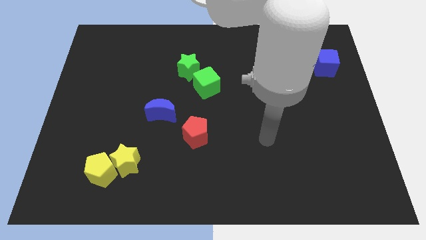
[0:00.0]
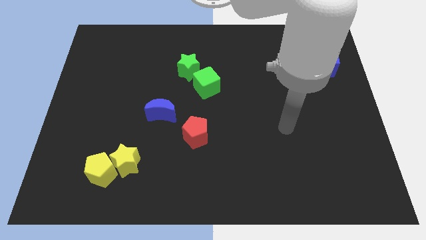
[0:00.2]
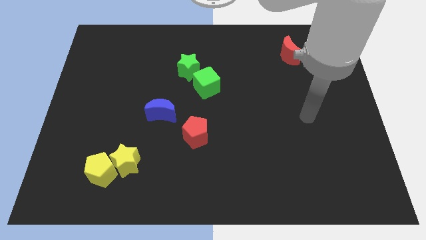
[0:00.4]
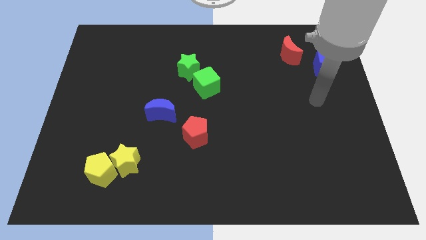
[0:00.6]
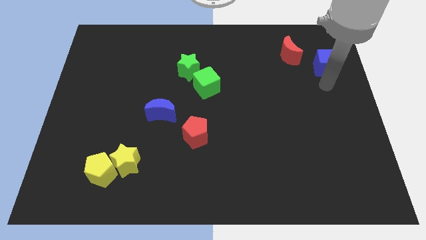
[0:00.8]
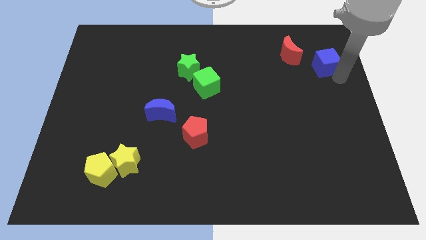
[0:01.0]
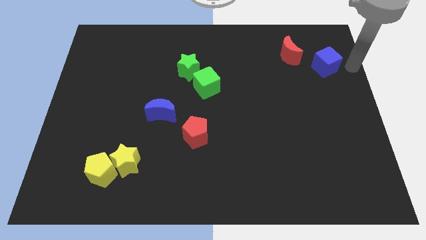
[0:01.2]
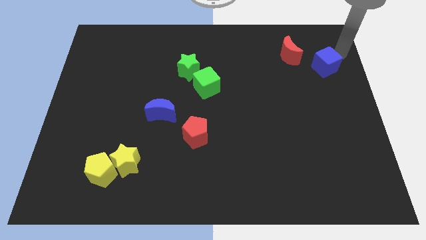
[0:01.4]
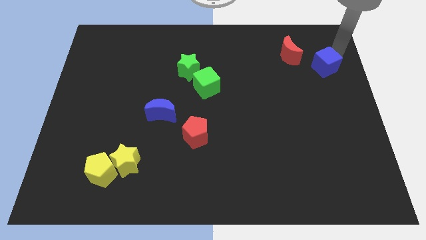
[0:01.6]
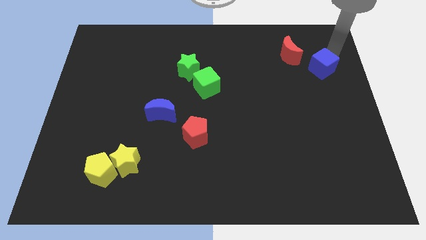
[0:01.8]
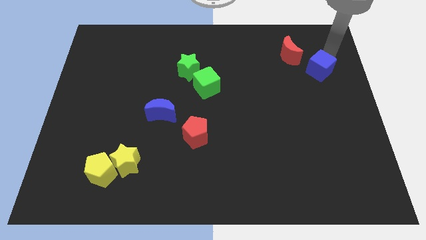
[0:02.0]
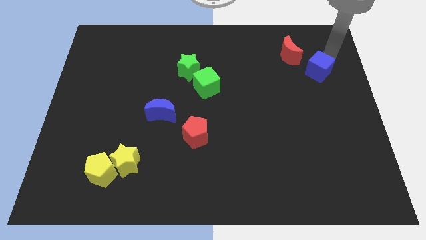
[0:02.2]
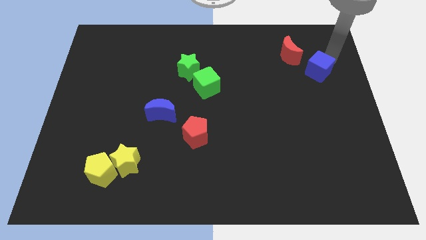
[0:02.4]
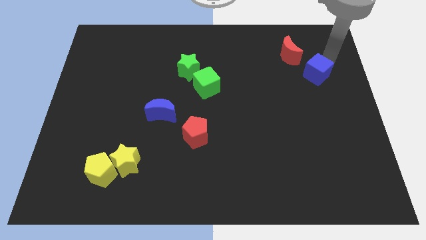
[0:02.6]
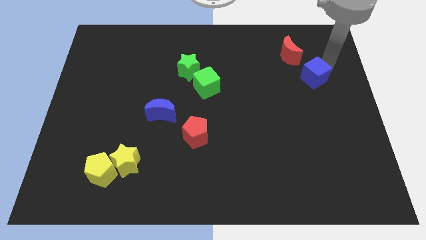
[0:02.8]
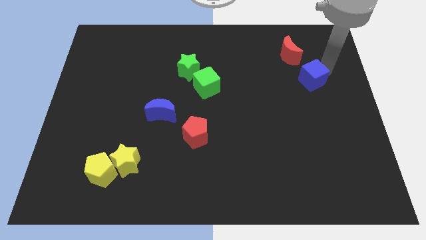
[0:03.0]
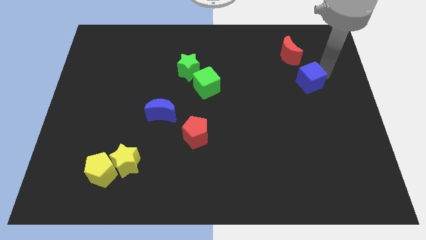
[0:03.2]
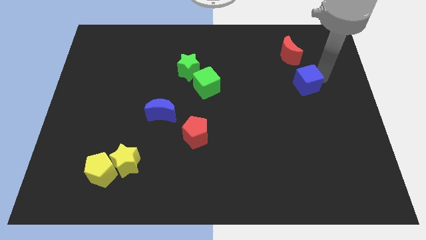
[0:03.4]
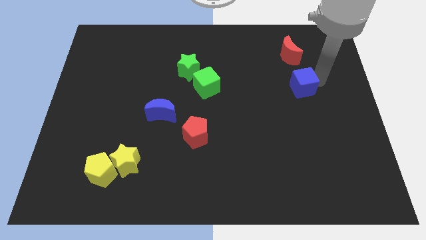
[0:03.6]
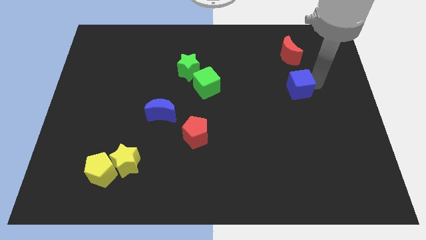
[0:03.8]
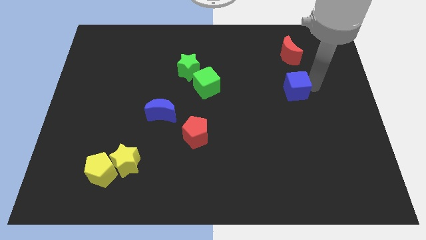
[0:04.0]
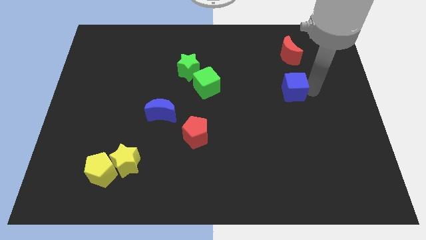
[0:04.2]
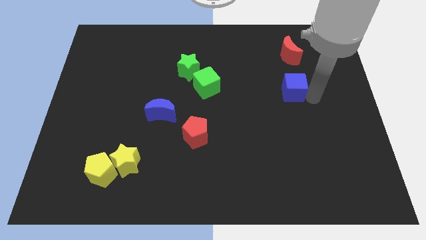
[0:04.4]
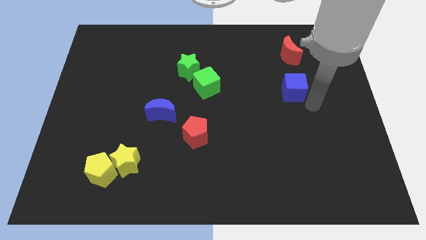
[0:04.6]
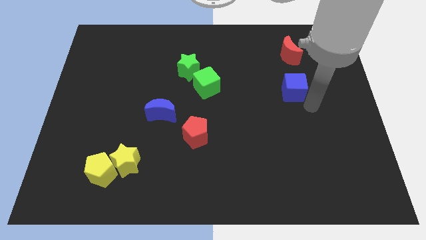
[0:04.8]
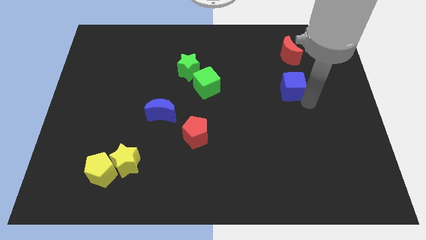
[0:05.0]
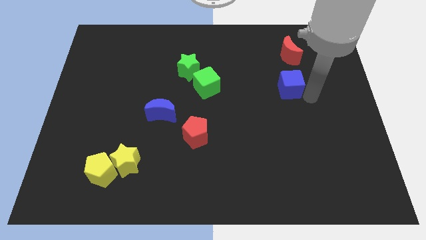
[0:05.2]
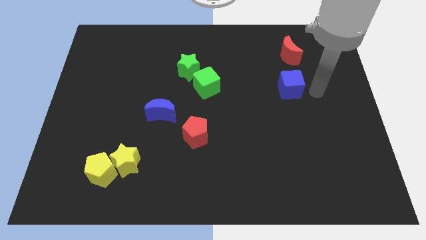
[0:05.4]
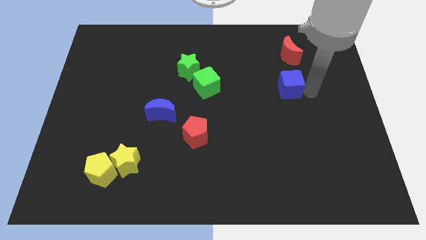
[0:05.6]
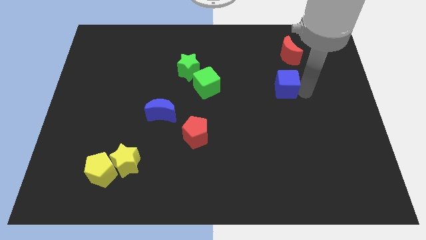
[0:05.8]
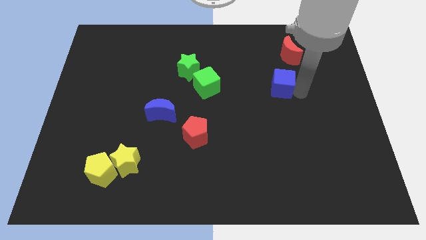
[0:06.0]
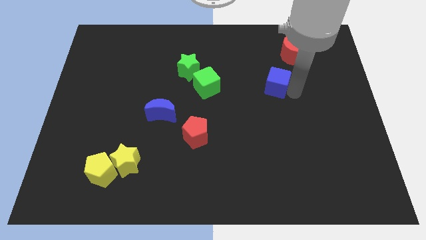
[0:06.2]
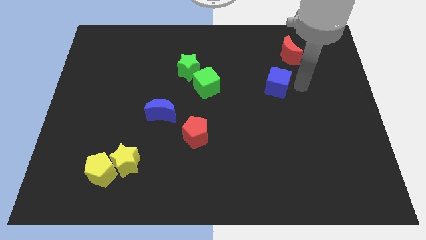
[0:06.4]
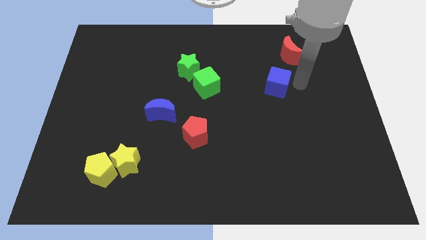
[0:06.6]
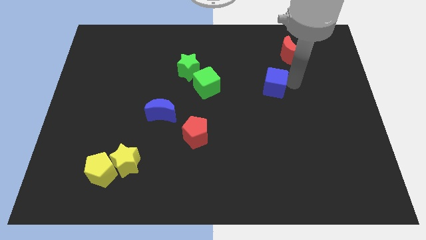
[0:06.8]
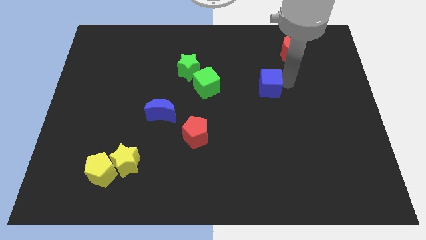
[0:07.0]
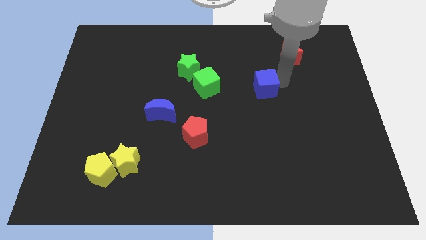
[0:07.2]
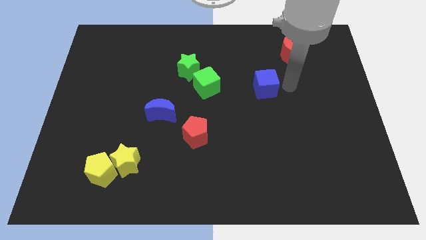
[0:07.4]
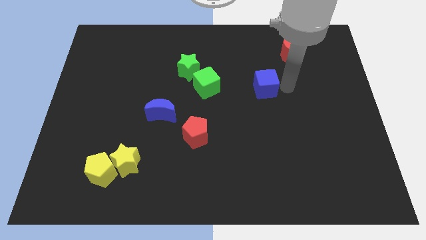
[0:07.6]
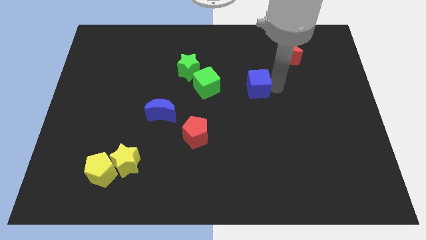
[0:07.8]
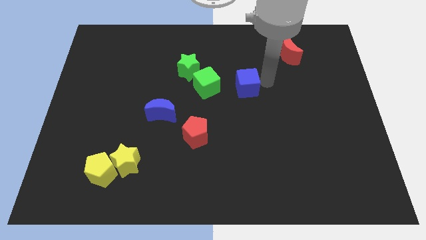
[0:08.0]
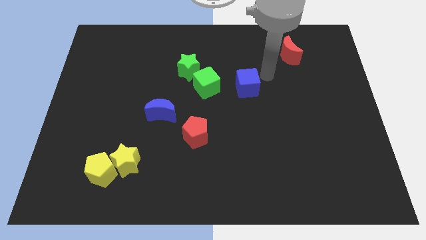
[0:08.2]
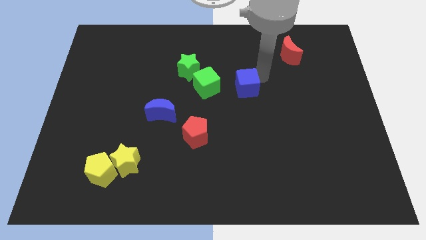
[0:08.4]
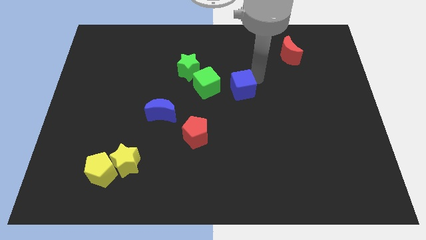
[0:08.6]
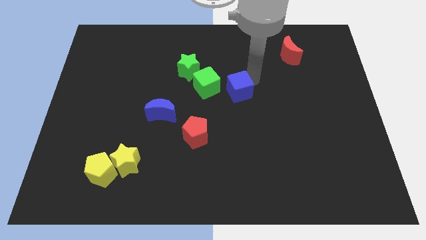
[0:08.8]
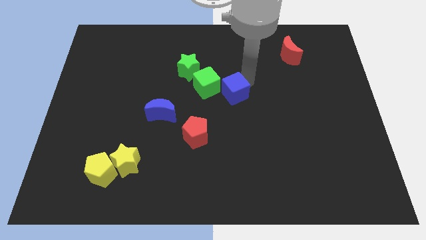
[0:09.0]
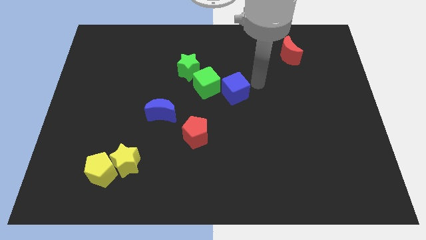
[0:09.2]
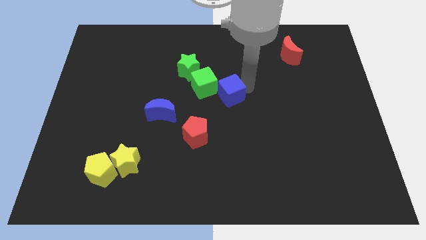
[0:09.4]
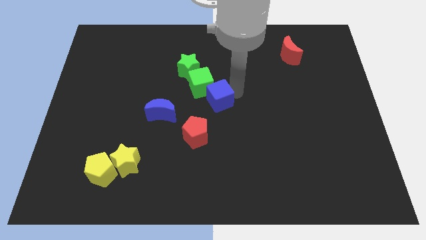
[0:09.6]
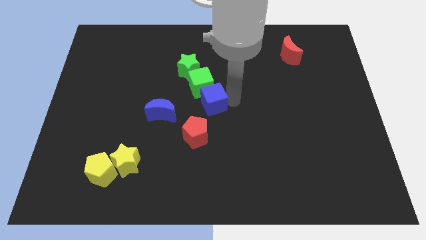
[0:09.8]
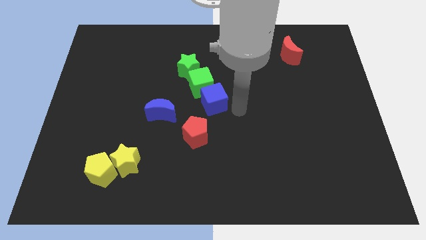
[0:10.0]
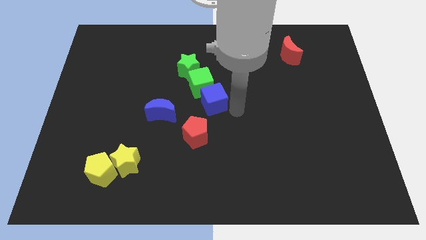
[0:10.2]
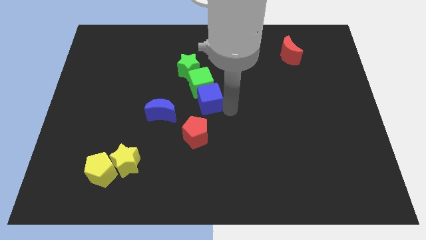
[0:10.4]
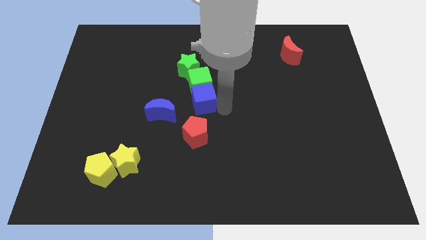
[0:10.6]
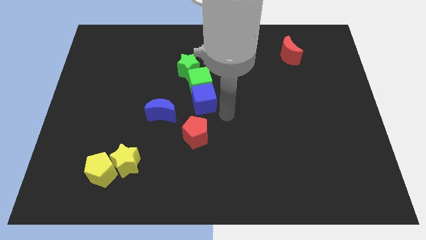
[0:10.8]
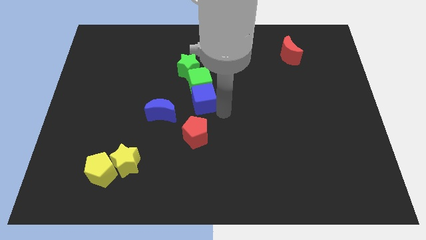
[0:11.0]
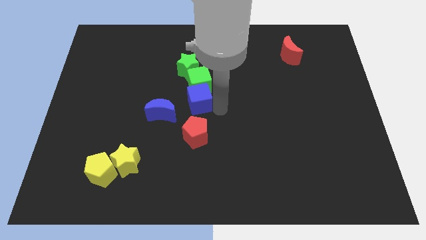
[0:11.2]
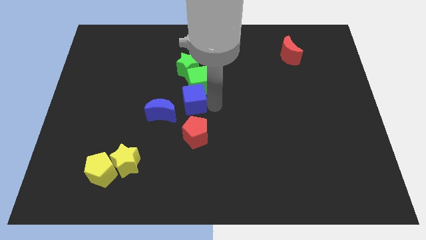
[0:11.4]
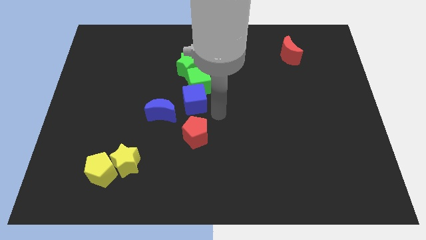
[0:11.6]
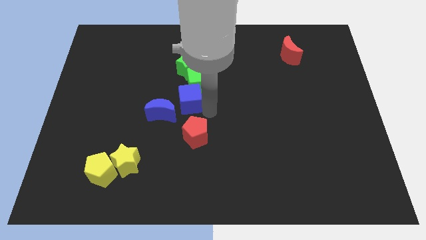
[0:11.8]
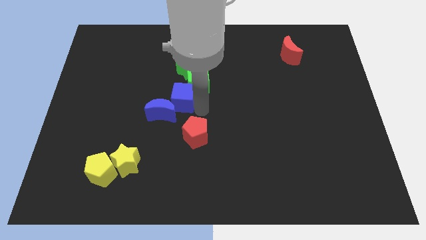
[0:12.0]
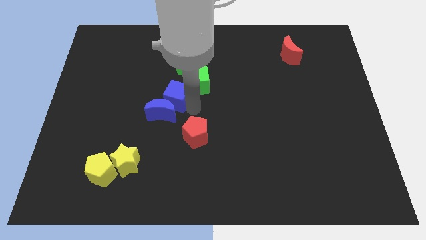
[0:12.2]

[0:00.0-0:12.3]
move the blue cube left of the green cube

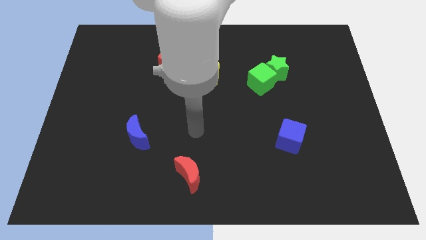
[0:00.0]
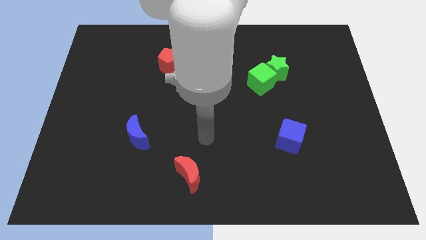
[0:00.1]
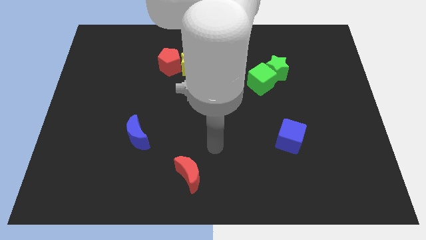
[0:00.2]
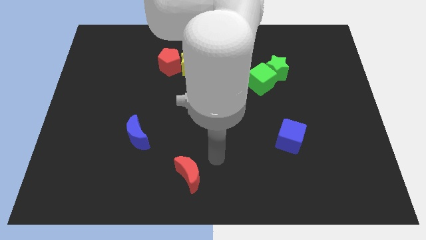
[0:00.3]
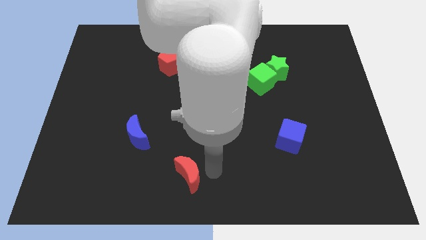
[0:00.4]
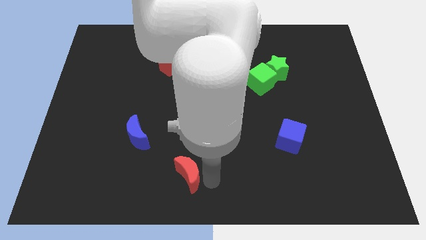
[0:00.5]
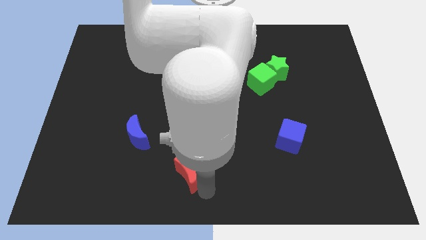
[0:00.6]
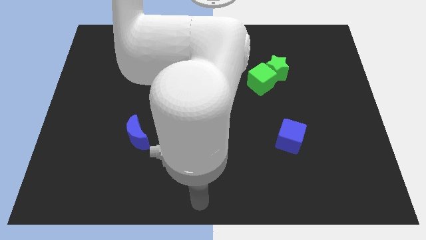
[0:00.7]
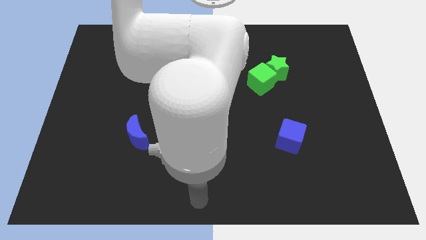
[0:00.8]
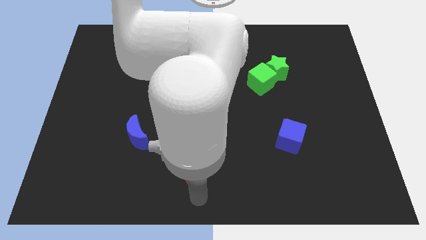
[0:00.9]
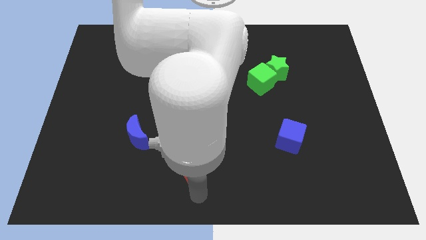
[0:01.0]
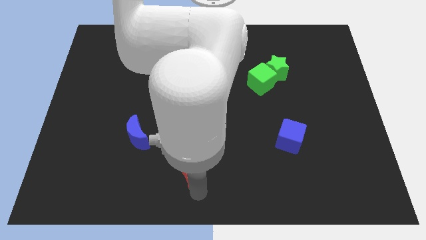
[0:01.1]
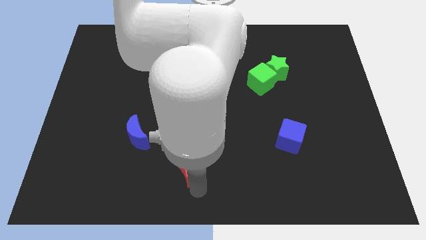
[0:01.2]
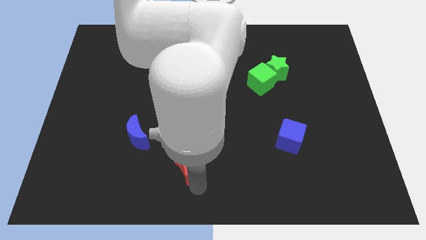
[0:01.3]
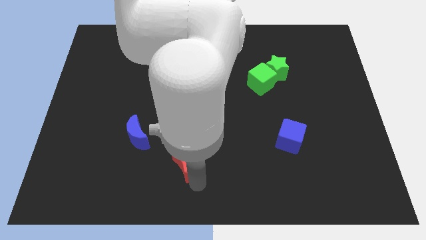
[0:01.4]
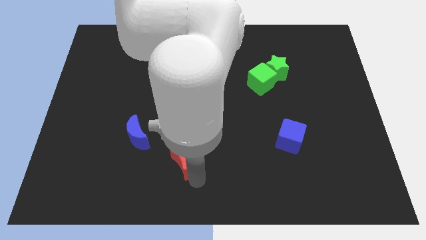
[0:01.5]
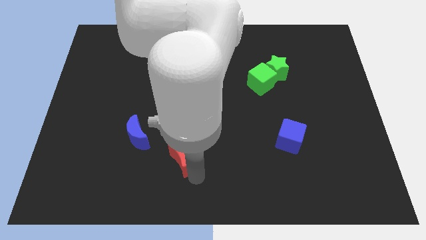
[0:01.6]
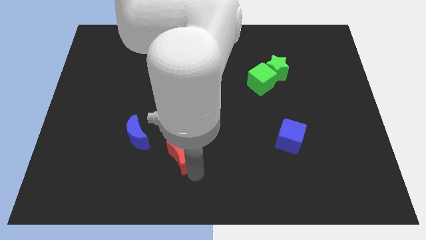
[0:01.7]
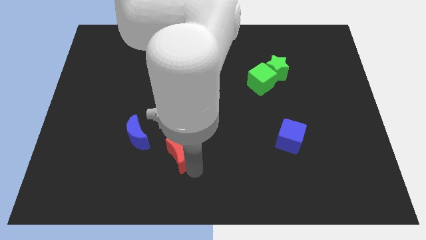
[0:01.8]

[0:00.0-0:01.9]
slide the red moon just right of the blue moon

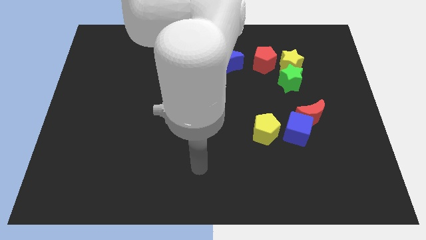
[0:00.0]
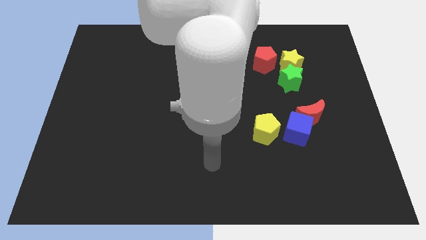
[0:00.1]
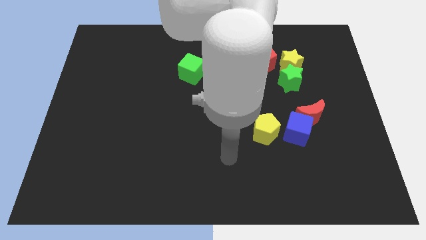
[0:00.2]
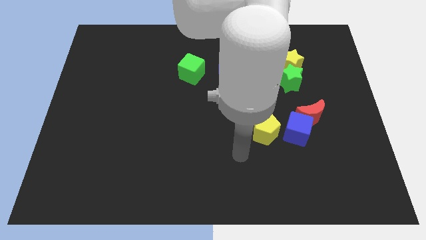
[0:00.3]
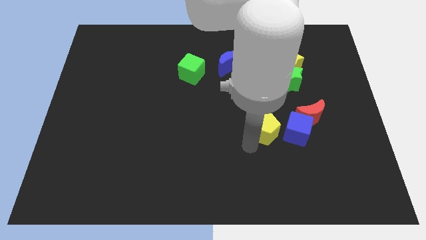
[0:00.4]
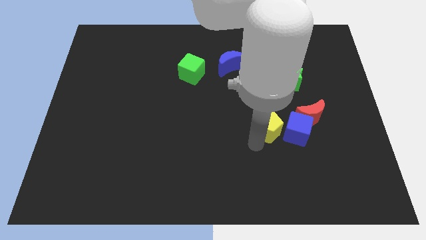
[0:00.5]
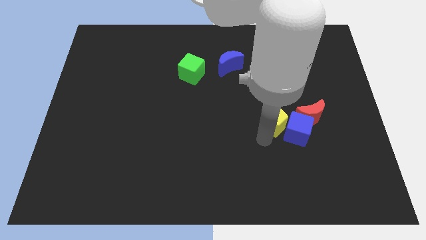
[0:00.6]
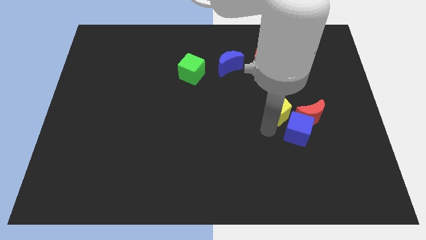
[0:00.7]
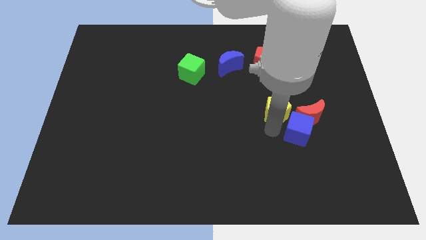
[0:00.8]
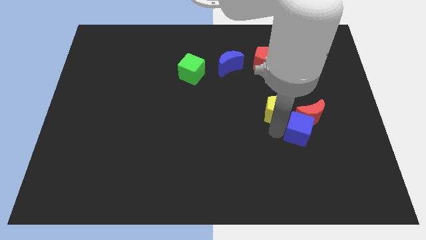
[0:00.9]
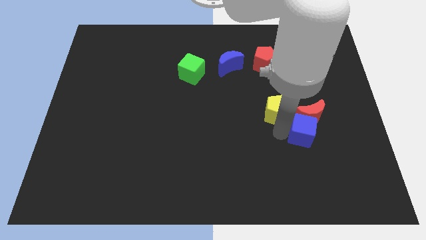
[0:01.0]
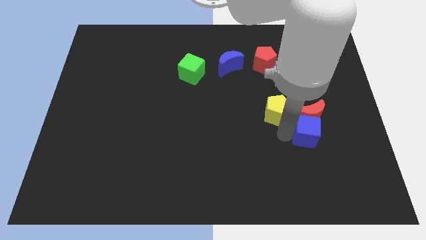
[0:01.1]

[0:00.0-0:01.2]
slide the blue cube to the bottom right of the red moon
